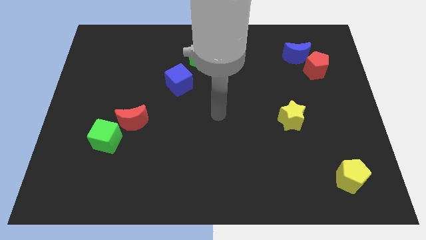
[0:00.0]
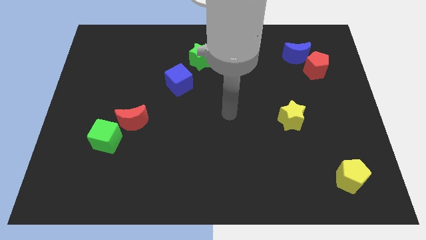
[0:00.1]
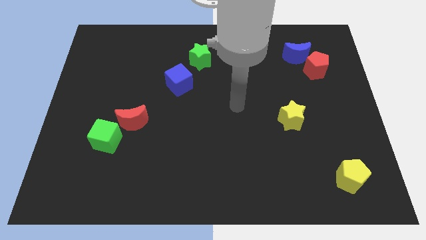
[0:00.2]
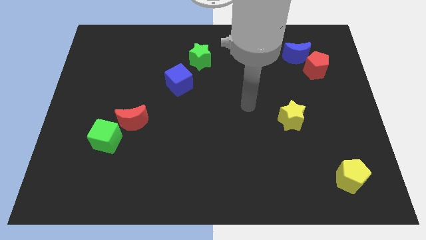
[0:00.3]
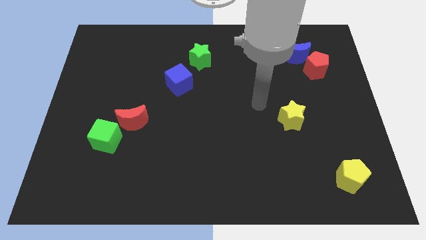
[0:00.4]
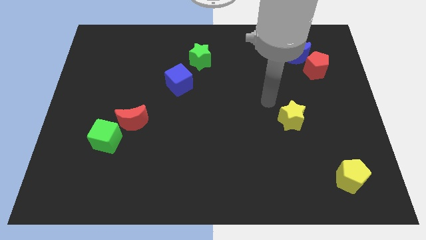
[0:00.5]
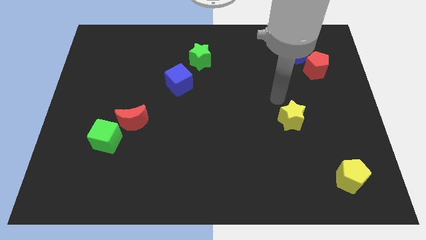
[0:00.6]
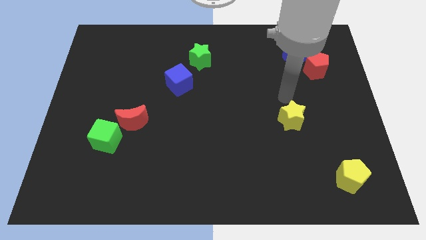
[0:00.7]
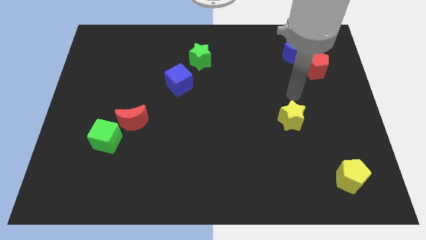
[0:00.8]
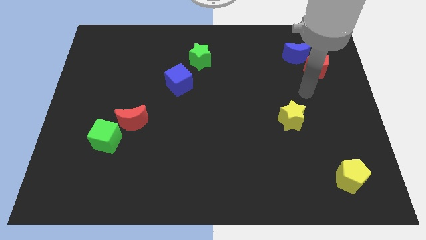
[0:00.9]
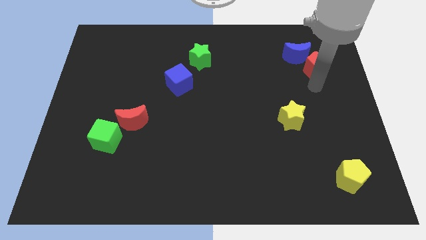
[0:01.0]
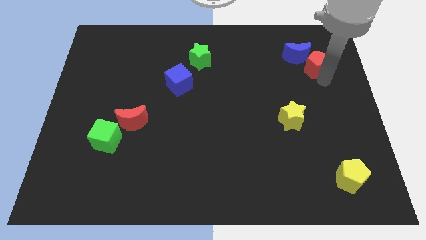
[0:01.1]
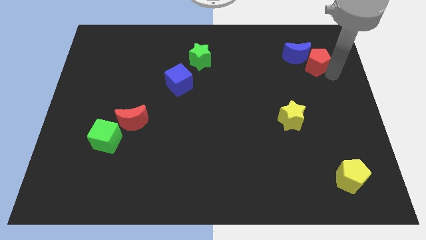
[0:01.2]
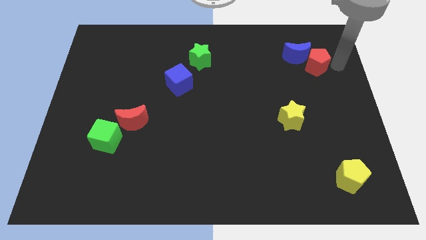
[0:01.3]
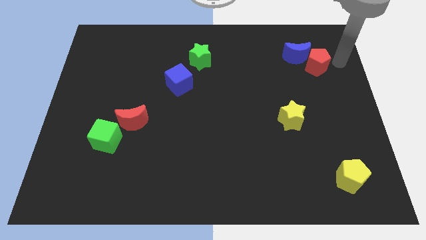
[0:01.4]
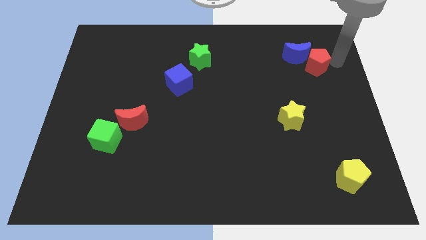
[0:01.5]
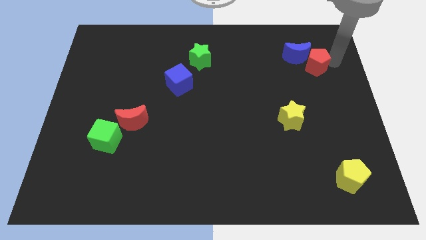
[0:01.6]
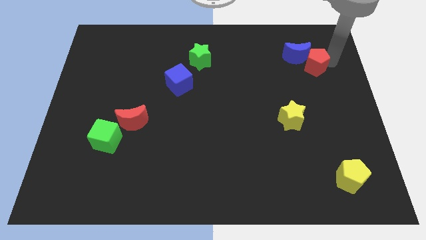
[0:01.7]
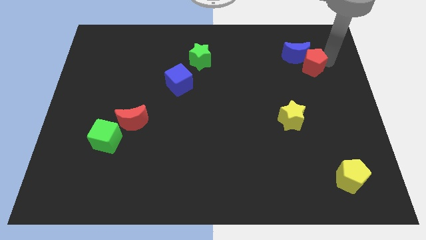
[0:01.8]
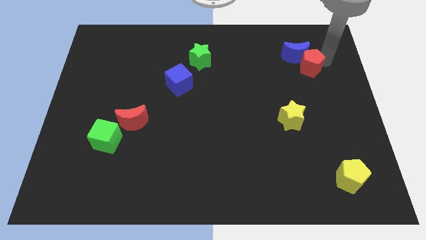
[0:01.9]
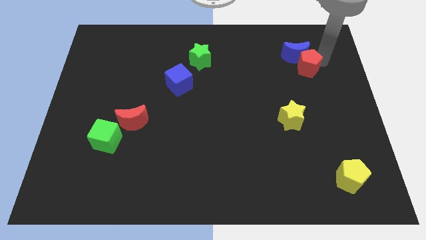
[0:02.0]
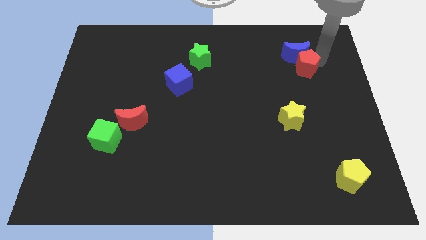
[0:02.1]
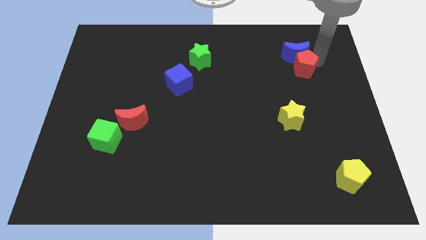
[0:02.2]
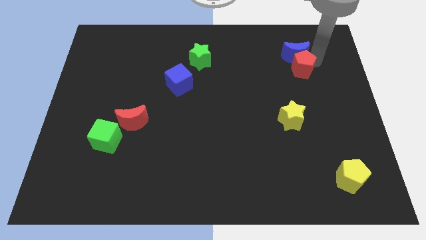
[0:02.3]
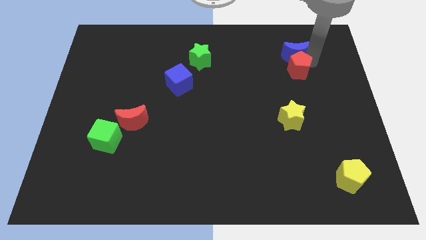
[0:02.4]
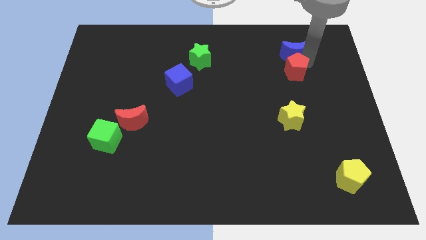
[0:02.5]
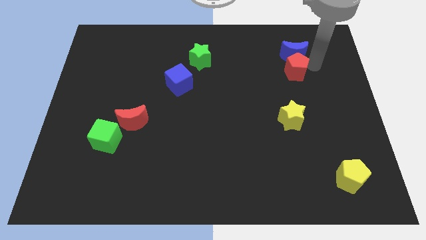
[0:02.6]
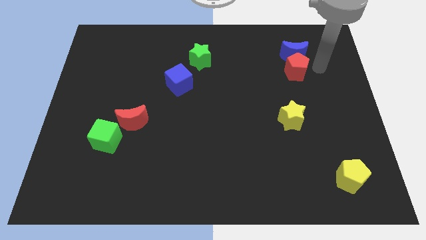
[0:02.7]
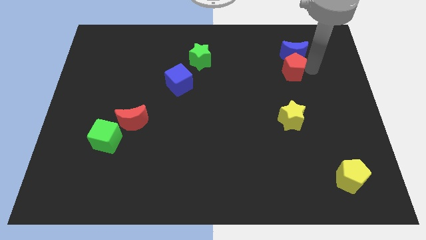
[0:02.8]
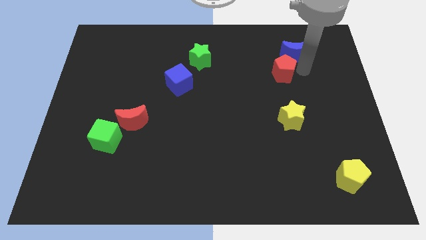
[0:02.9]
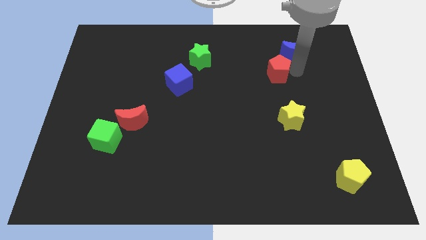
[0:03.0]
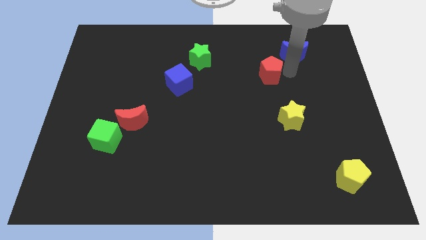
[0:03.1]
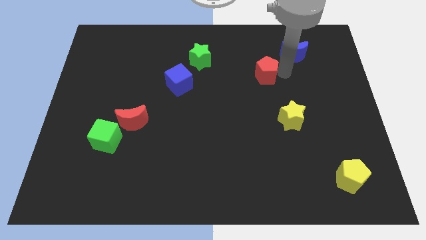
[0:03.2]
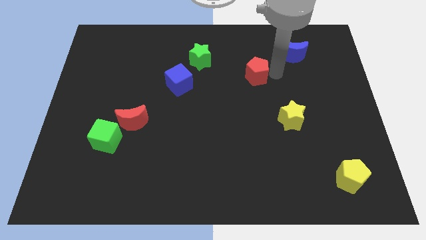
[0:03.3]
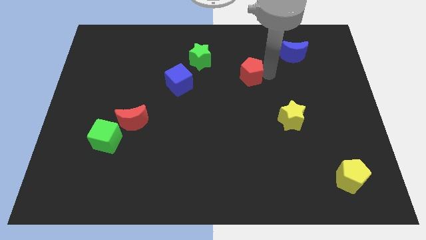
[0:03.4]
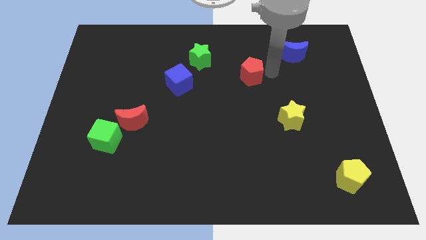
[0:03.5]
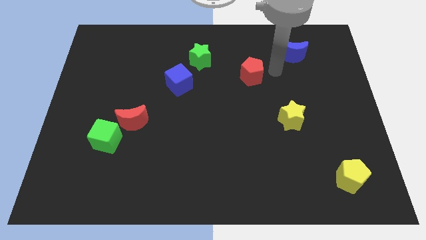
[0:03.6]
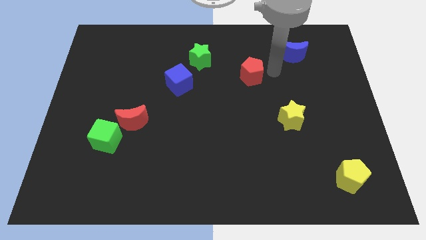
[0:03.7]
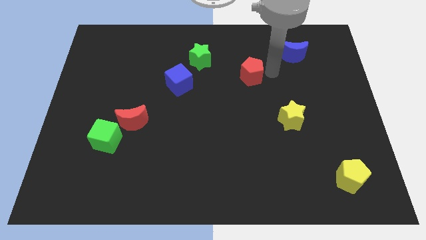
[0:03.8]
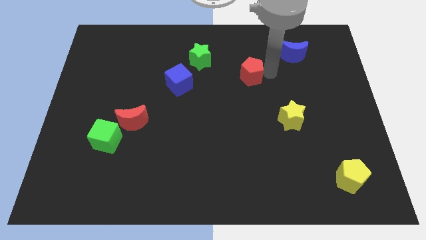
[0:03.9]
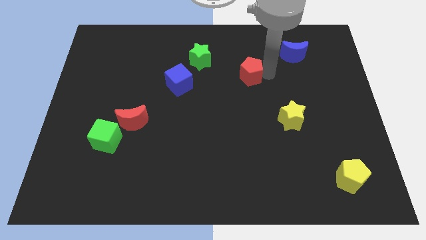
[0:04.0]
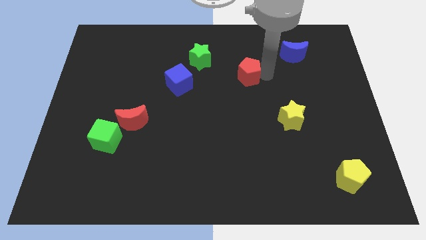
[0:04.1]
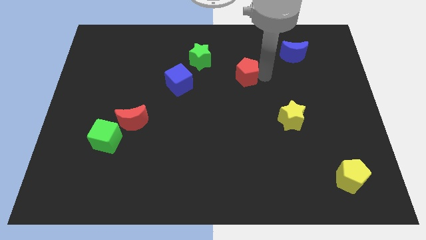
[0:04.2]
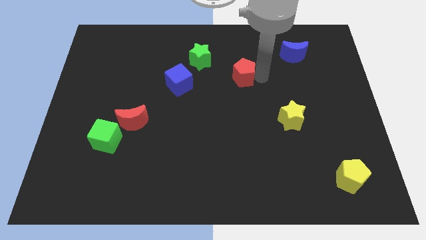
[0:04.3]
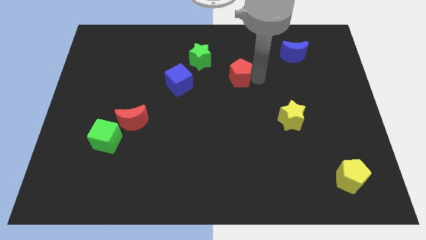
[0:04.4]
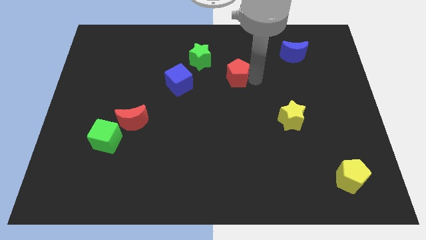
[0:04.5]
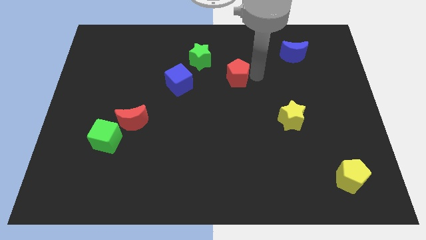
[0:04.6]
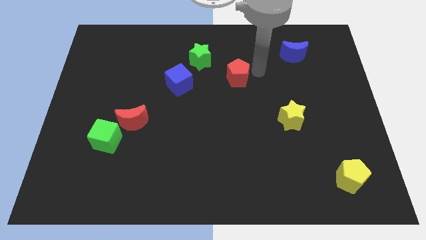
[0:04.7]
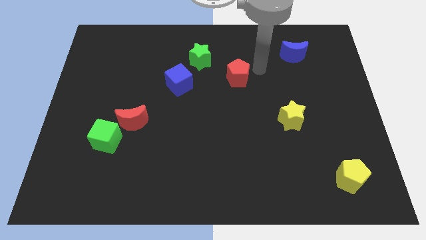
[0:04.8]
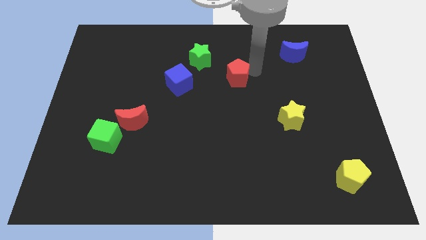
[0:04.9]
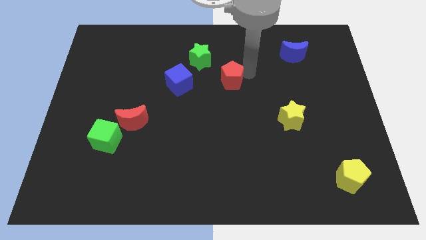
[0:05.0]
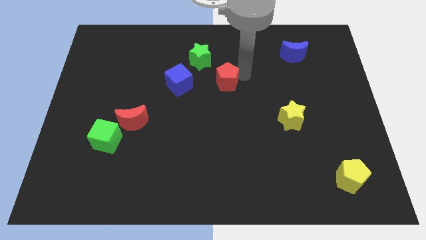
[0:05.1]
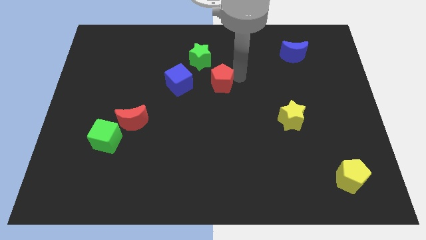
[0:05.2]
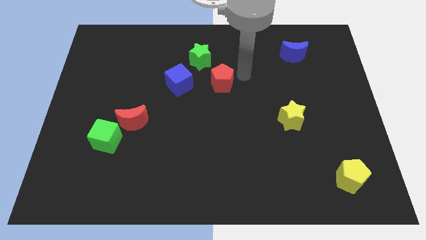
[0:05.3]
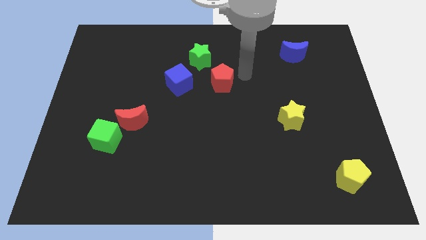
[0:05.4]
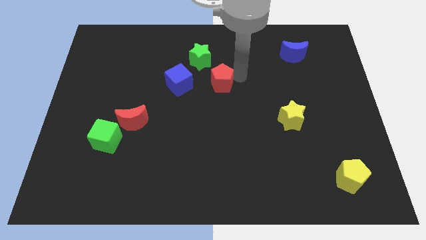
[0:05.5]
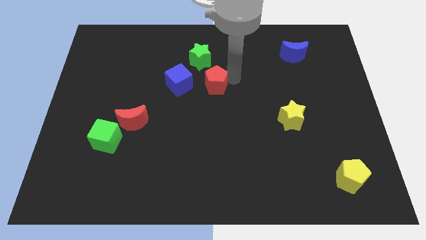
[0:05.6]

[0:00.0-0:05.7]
move the red pentagon below the green star

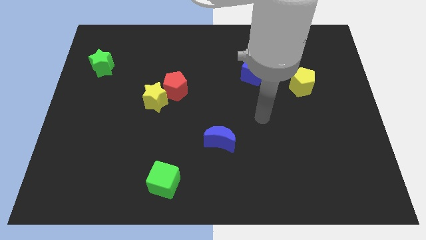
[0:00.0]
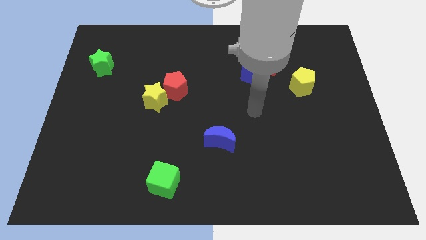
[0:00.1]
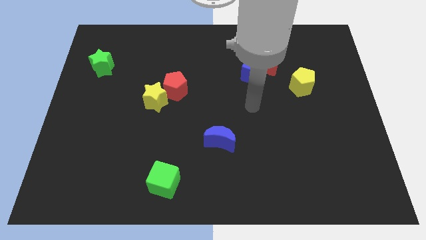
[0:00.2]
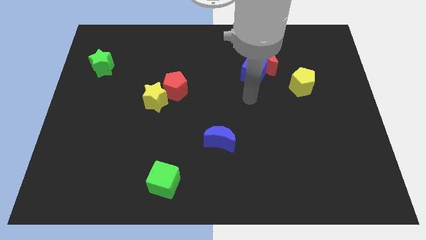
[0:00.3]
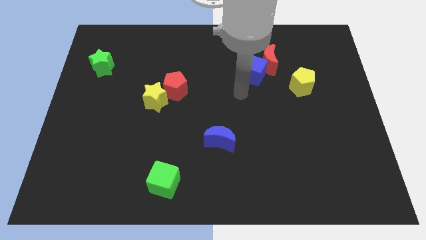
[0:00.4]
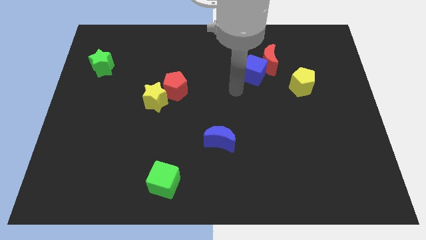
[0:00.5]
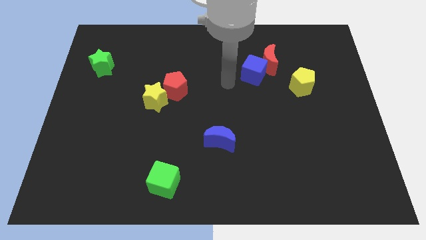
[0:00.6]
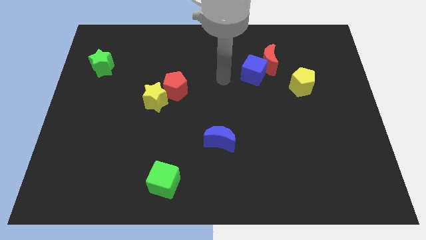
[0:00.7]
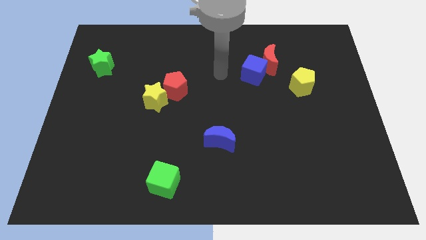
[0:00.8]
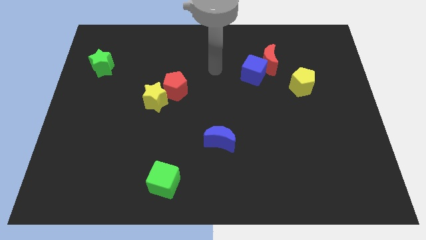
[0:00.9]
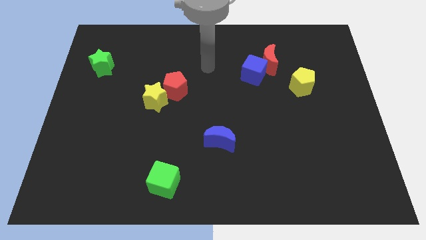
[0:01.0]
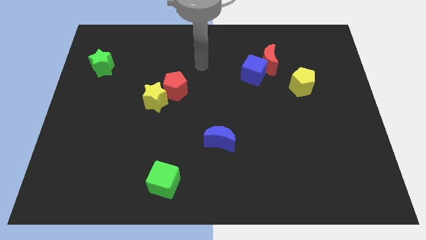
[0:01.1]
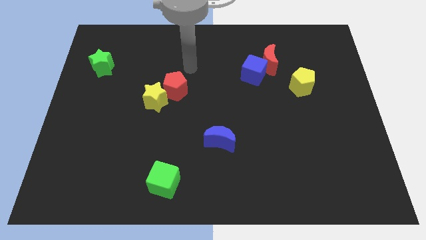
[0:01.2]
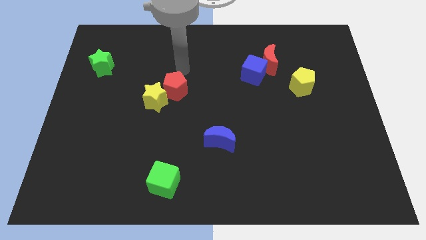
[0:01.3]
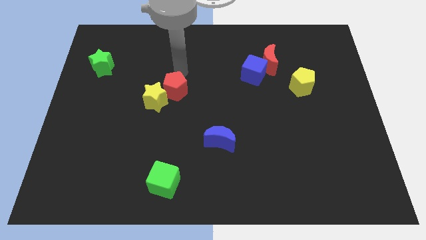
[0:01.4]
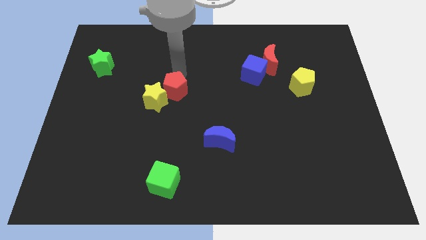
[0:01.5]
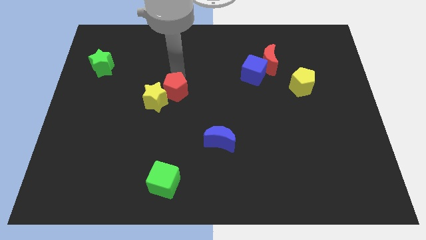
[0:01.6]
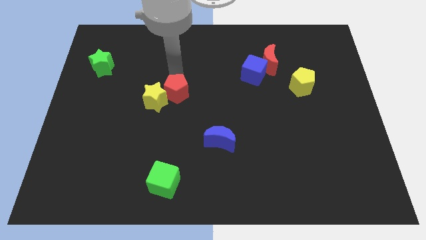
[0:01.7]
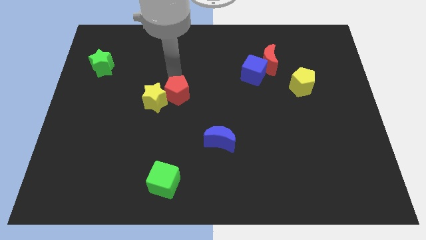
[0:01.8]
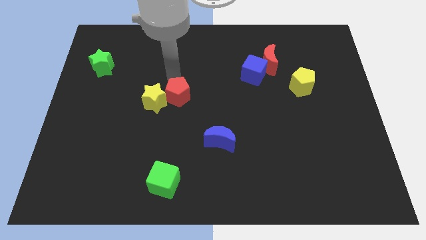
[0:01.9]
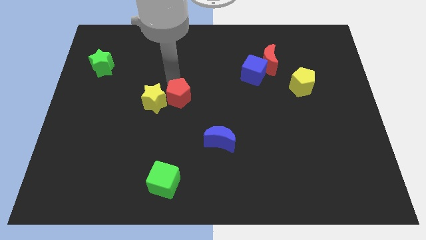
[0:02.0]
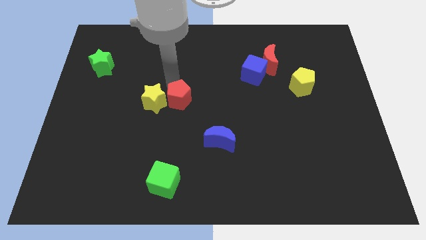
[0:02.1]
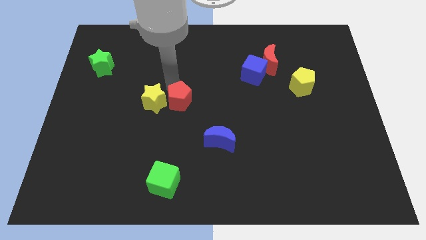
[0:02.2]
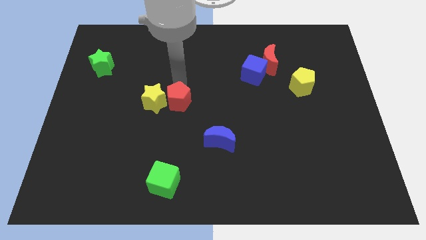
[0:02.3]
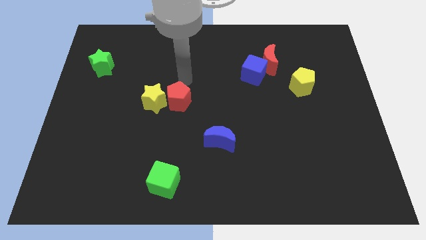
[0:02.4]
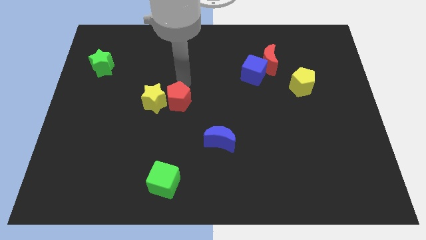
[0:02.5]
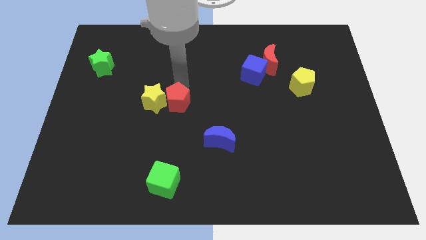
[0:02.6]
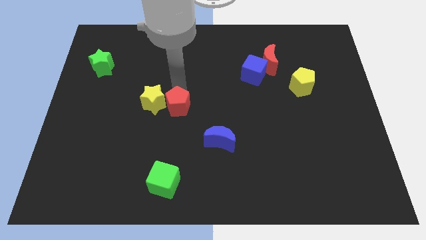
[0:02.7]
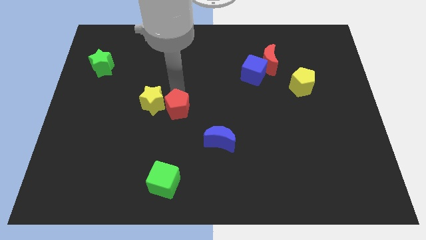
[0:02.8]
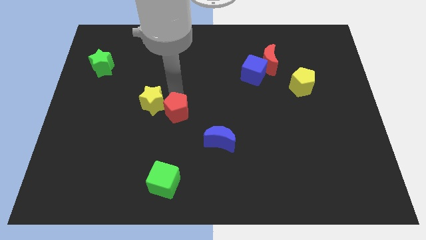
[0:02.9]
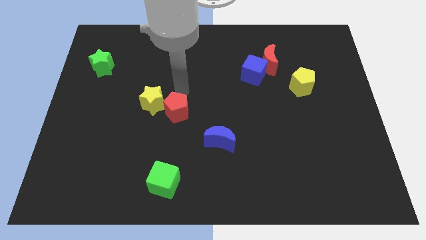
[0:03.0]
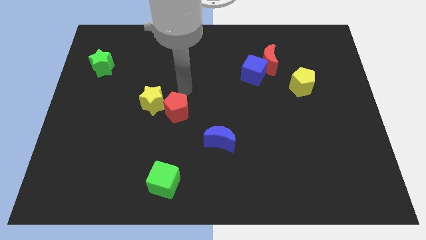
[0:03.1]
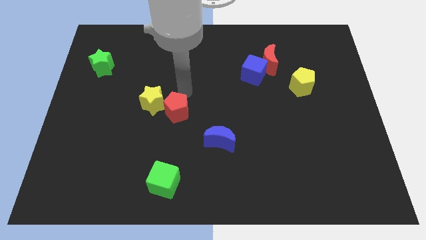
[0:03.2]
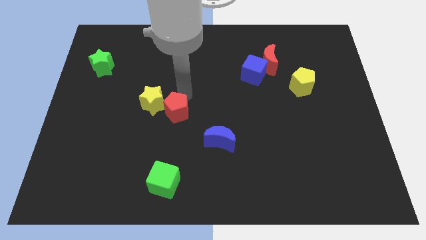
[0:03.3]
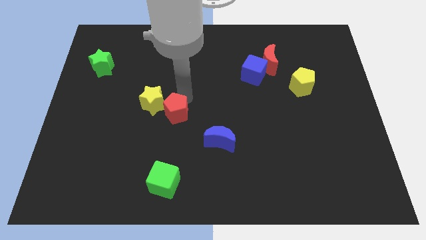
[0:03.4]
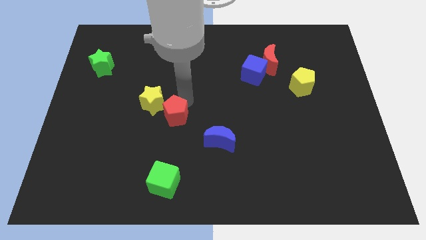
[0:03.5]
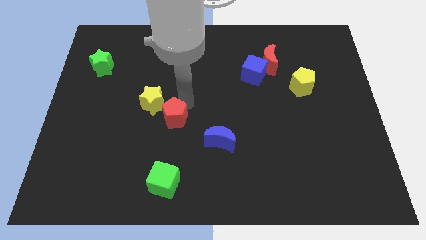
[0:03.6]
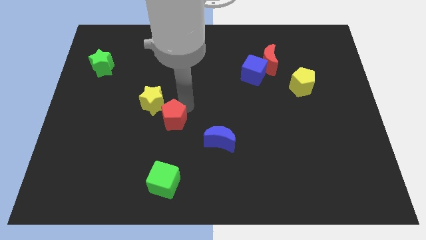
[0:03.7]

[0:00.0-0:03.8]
move the red pentagon above the green cube
